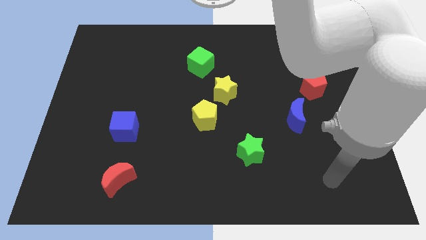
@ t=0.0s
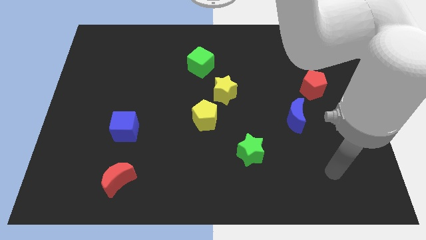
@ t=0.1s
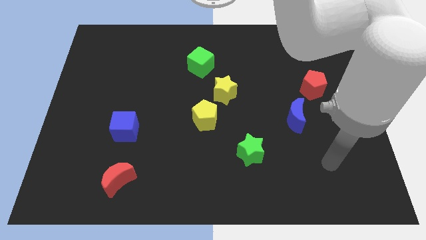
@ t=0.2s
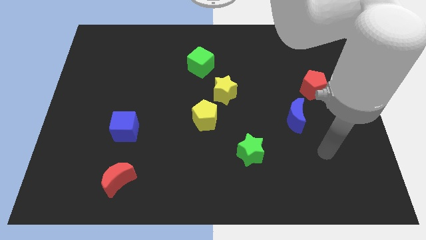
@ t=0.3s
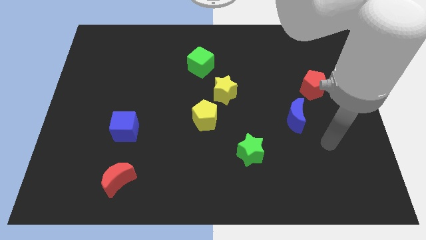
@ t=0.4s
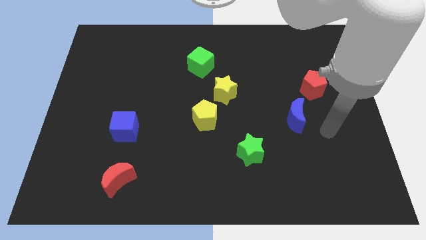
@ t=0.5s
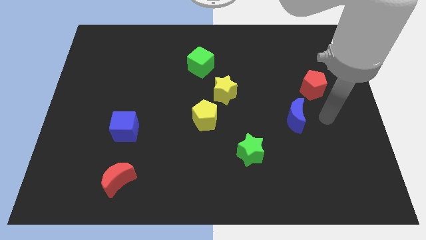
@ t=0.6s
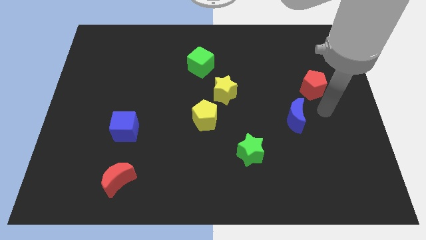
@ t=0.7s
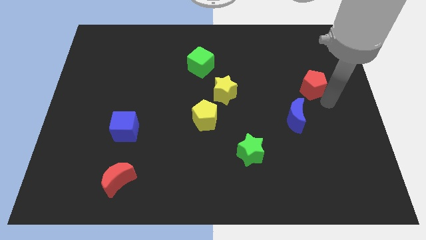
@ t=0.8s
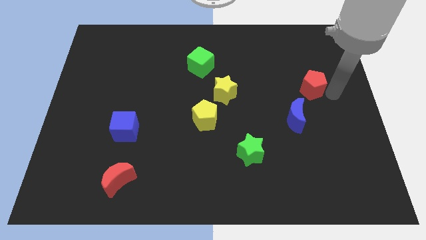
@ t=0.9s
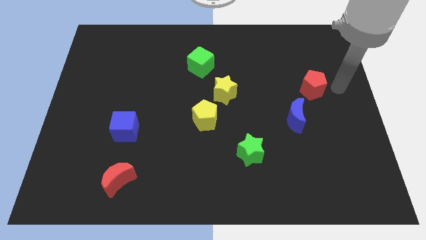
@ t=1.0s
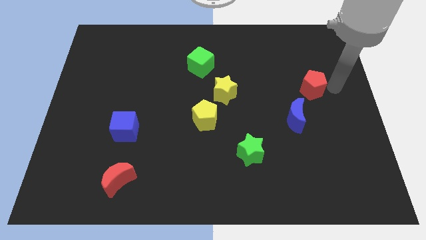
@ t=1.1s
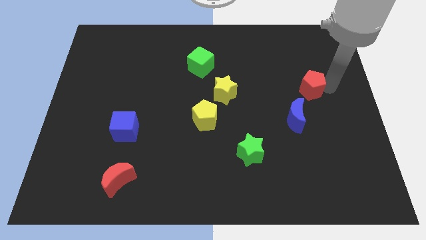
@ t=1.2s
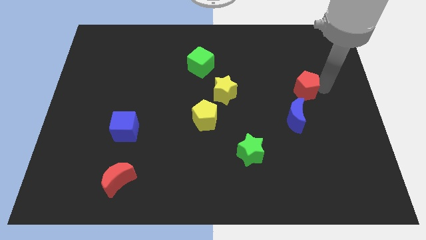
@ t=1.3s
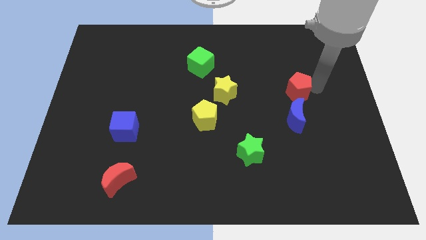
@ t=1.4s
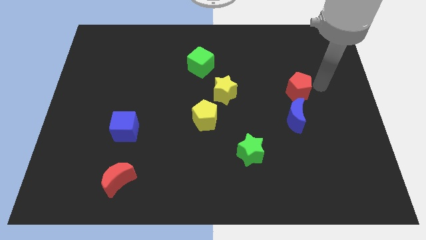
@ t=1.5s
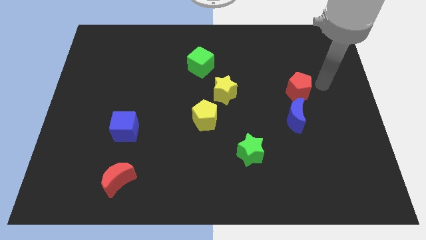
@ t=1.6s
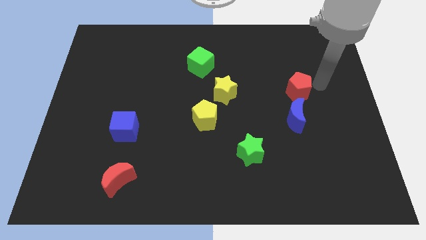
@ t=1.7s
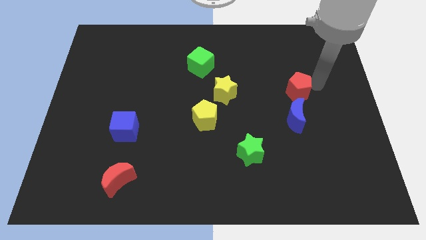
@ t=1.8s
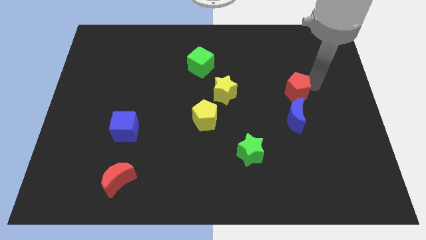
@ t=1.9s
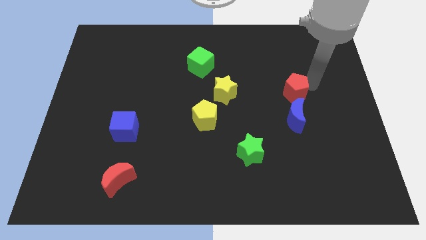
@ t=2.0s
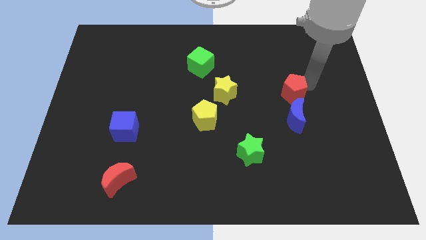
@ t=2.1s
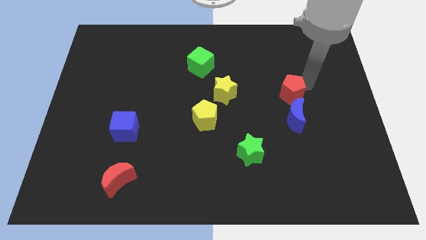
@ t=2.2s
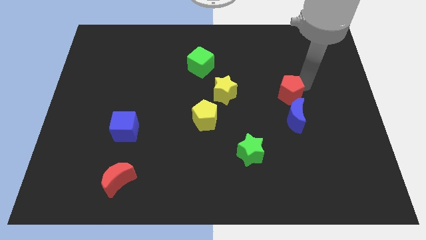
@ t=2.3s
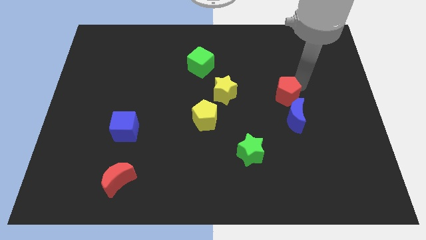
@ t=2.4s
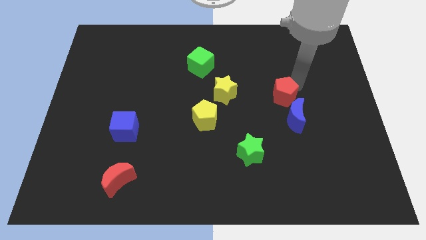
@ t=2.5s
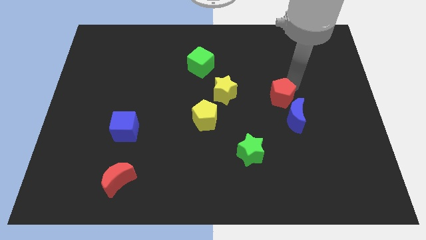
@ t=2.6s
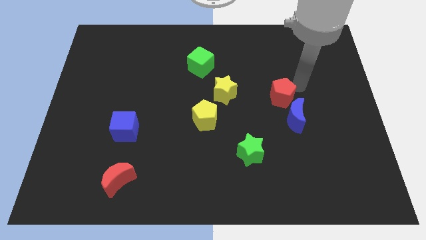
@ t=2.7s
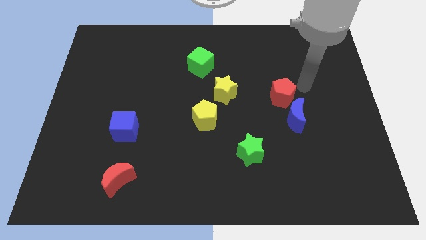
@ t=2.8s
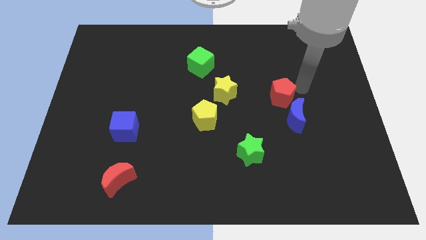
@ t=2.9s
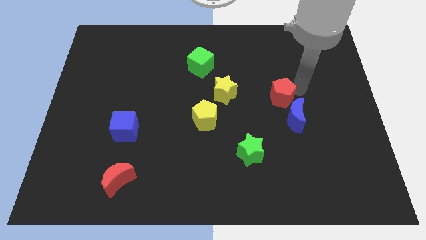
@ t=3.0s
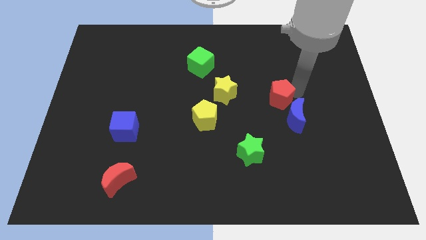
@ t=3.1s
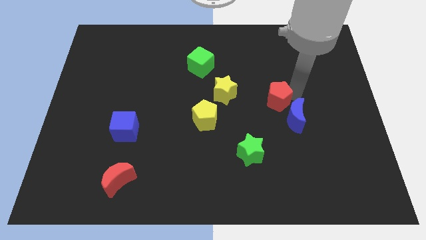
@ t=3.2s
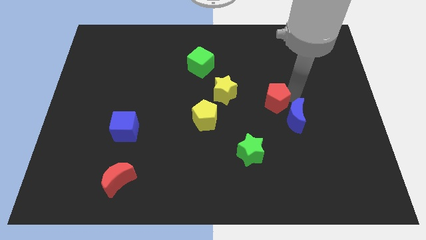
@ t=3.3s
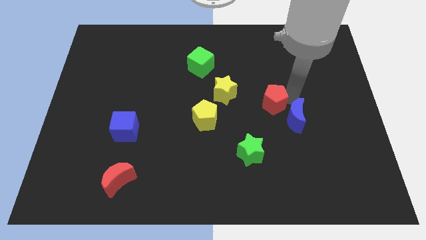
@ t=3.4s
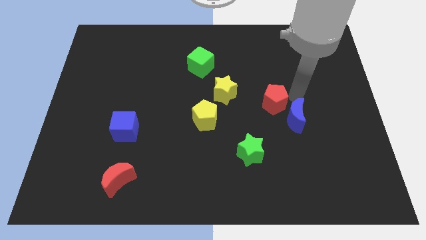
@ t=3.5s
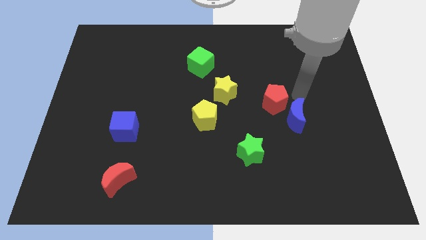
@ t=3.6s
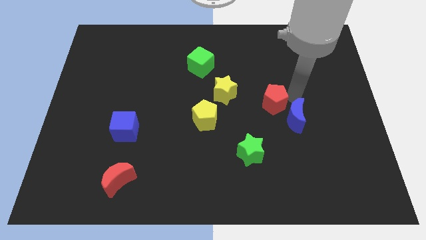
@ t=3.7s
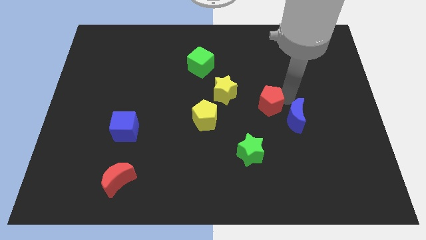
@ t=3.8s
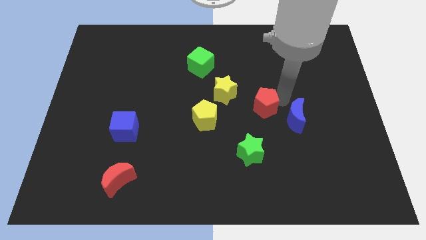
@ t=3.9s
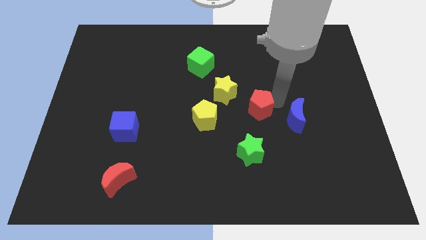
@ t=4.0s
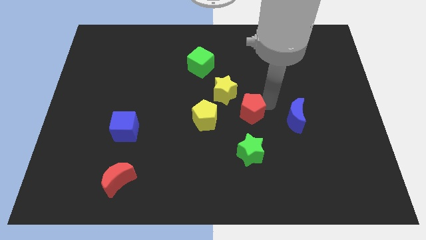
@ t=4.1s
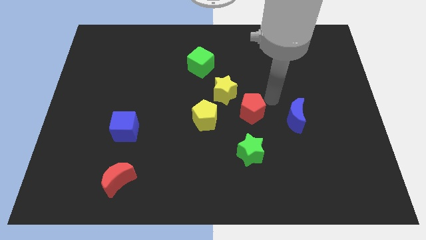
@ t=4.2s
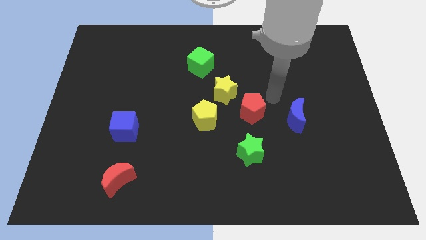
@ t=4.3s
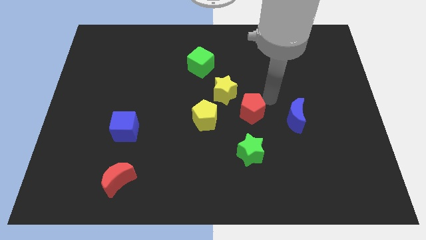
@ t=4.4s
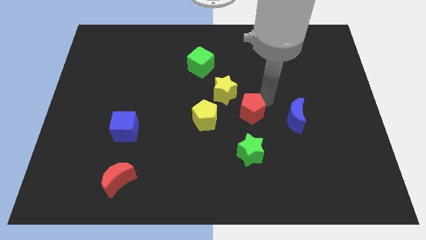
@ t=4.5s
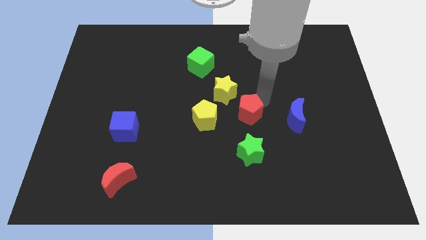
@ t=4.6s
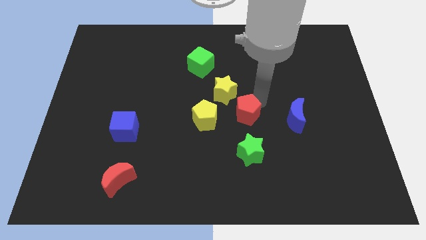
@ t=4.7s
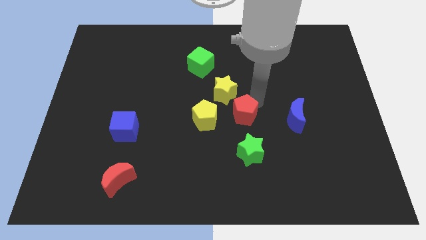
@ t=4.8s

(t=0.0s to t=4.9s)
slide the red pentagon to the bottom of the yellow star

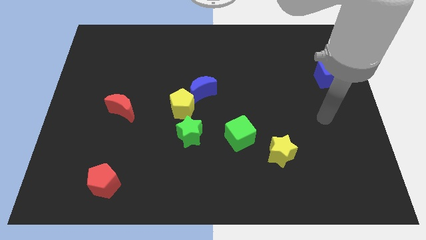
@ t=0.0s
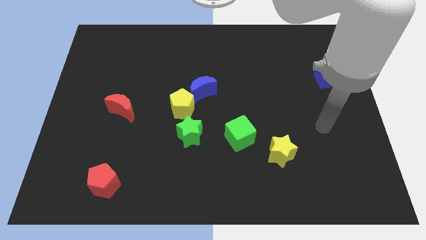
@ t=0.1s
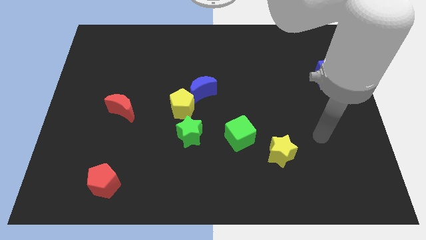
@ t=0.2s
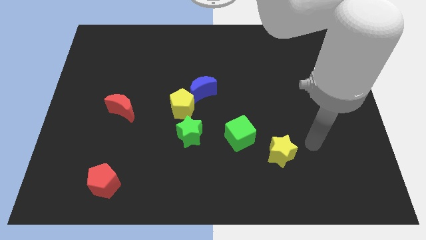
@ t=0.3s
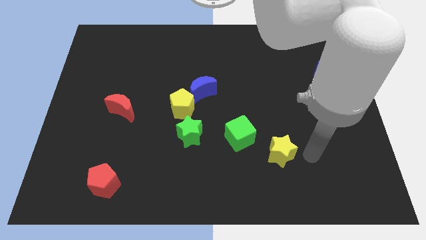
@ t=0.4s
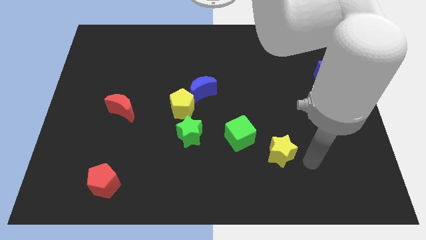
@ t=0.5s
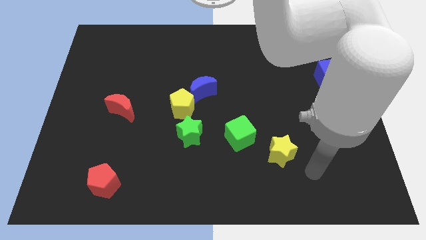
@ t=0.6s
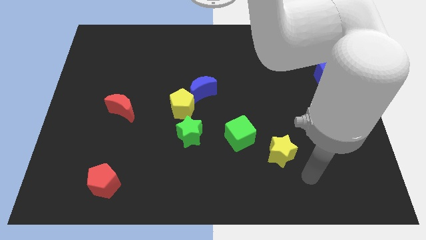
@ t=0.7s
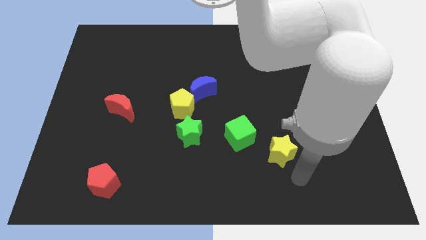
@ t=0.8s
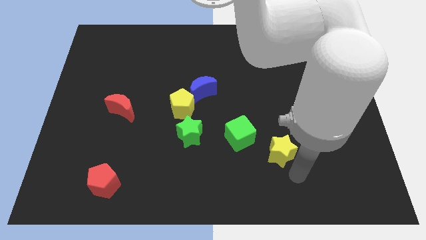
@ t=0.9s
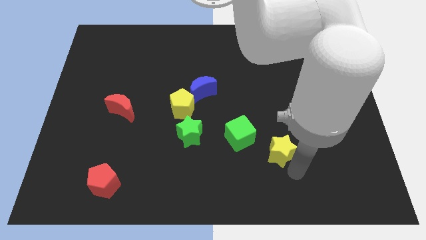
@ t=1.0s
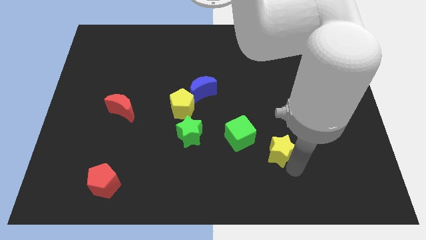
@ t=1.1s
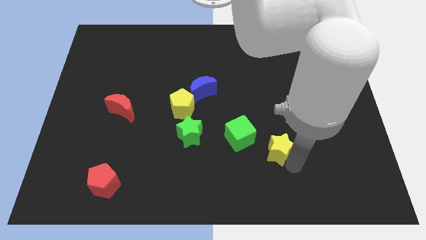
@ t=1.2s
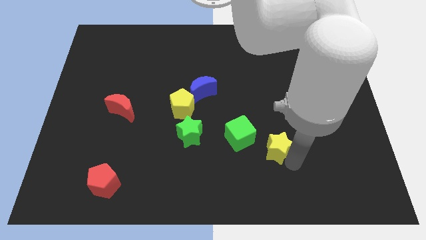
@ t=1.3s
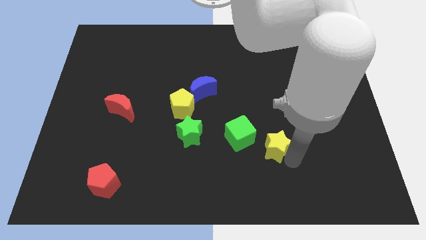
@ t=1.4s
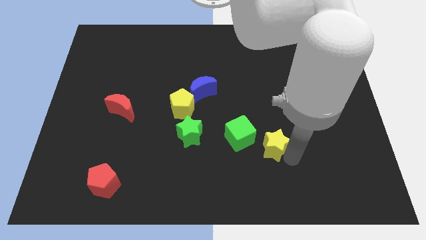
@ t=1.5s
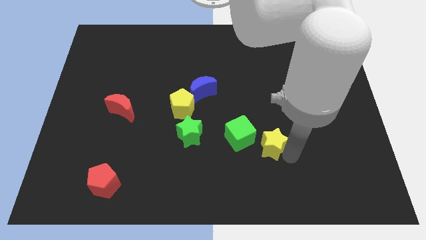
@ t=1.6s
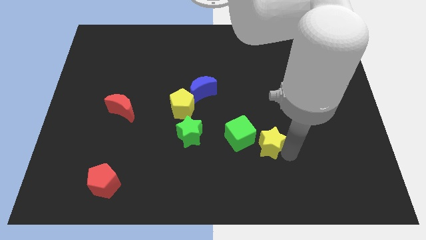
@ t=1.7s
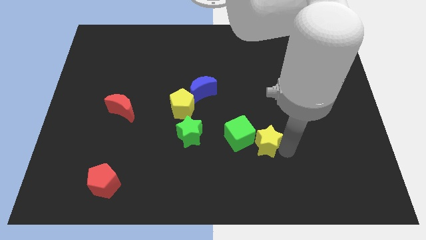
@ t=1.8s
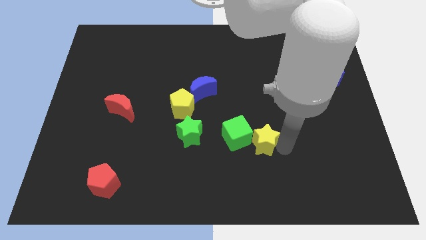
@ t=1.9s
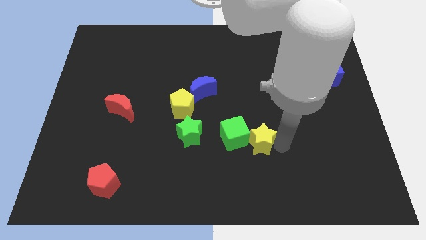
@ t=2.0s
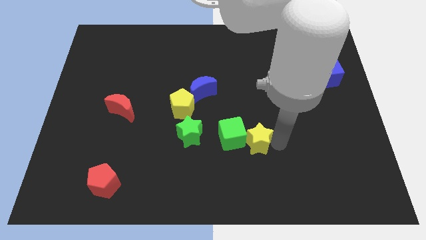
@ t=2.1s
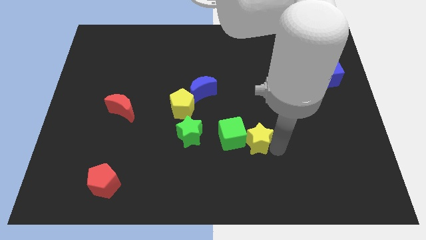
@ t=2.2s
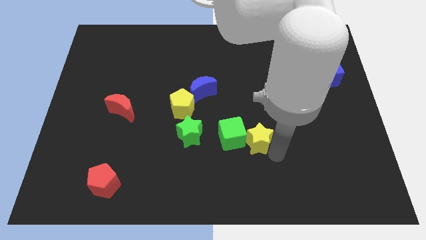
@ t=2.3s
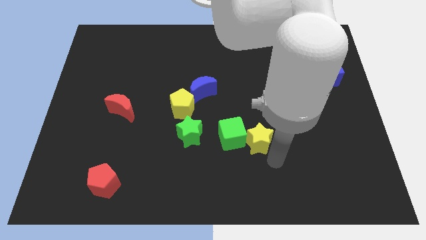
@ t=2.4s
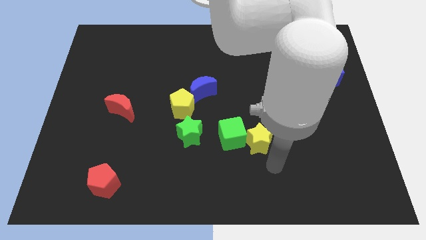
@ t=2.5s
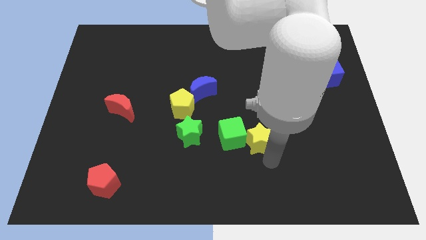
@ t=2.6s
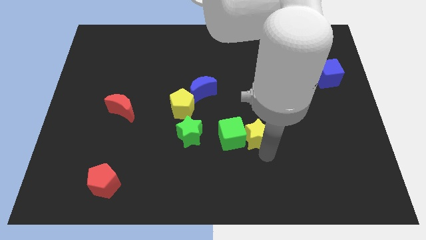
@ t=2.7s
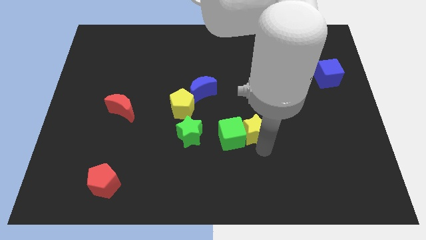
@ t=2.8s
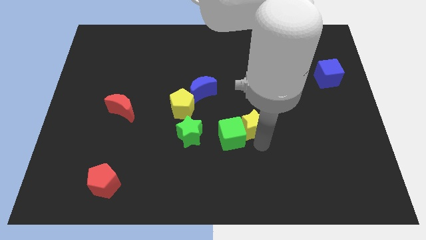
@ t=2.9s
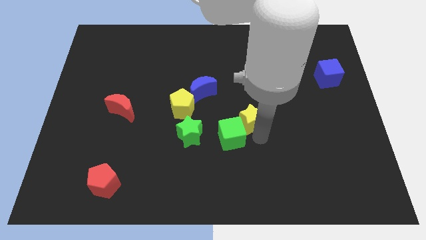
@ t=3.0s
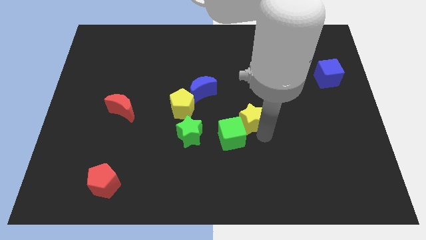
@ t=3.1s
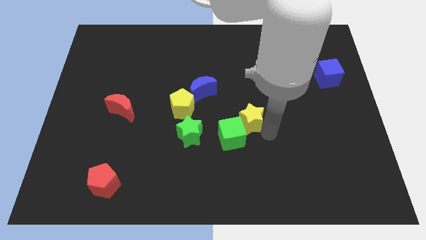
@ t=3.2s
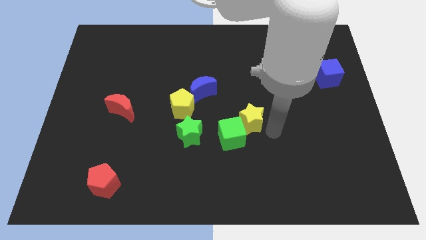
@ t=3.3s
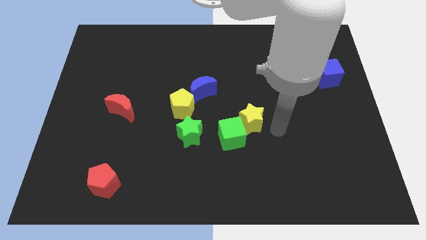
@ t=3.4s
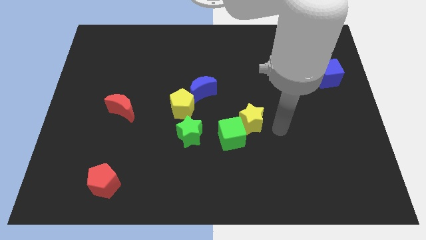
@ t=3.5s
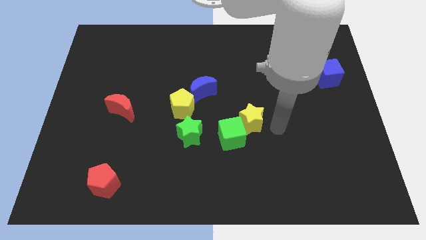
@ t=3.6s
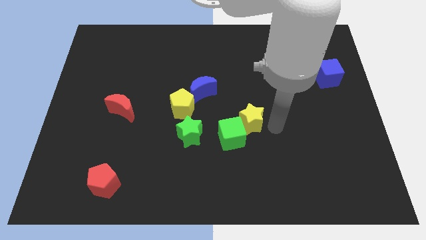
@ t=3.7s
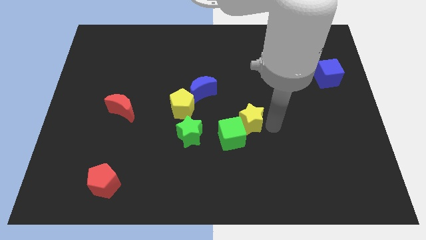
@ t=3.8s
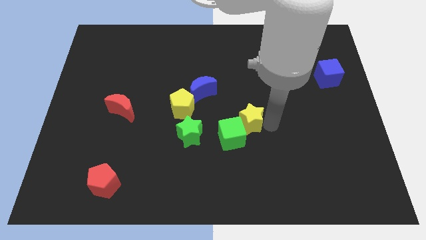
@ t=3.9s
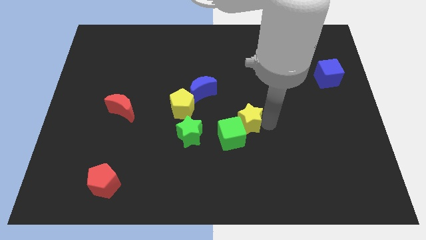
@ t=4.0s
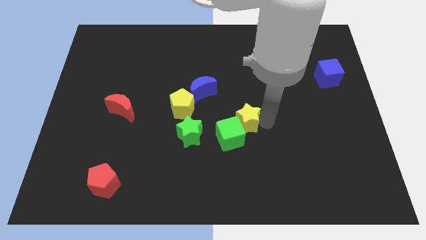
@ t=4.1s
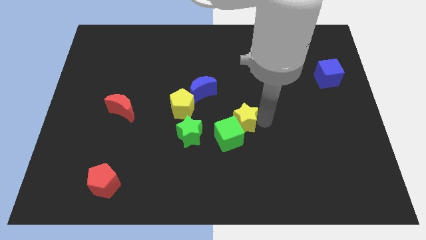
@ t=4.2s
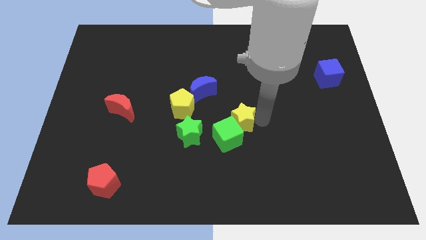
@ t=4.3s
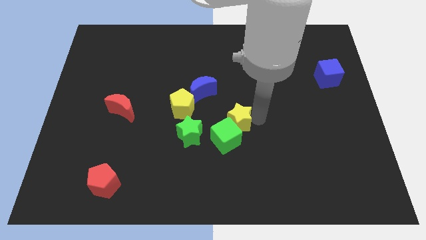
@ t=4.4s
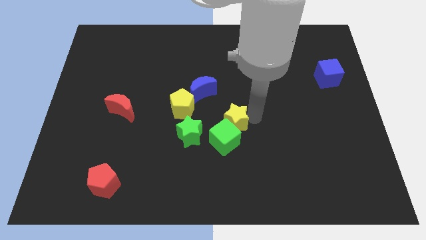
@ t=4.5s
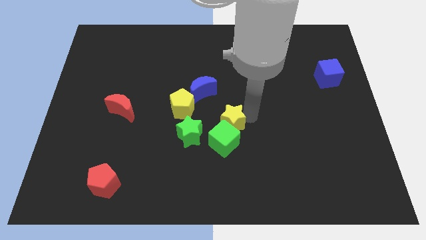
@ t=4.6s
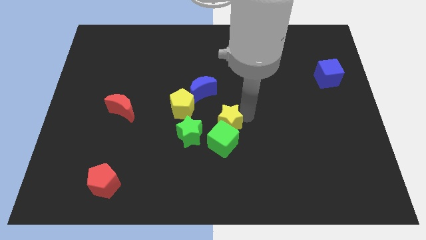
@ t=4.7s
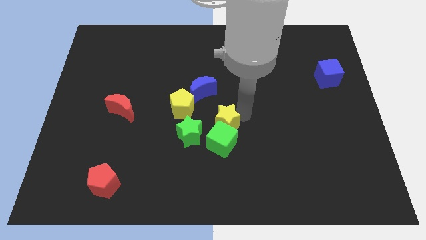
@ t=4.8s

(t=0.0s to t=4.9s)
slide the yellow star to the top left side of the green cube
